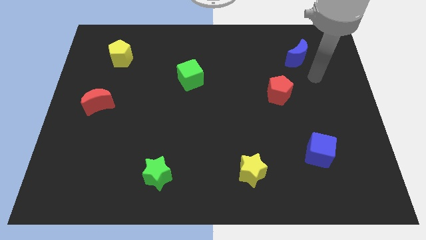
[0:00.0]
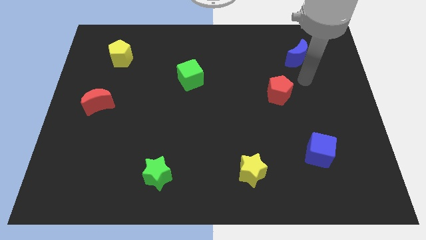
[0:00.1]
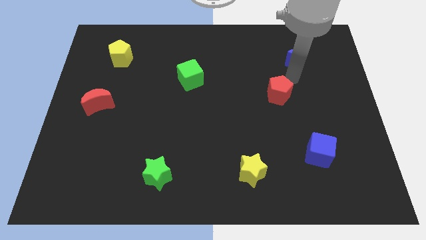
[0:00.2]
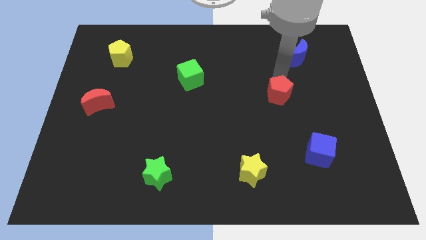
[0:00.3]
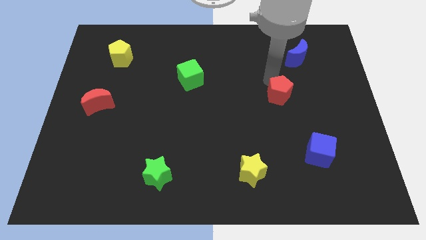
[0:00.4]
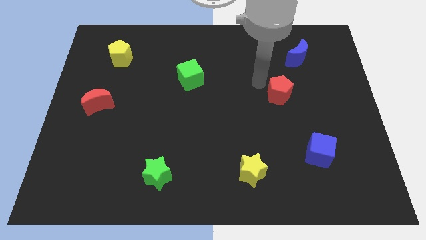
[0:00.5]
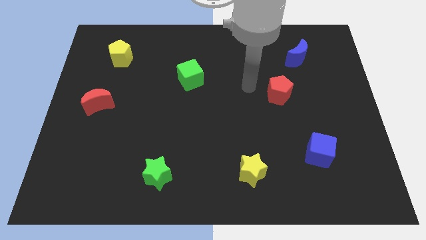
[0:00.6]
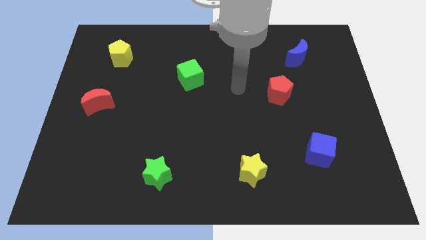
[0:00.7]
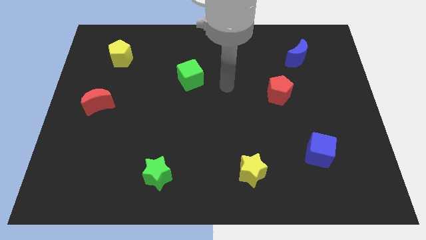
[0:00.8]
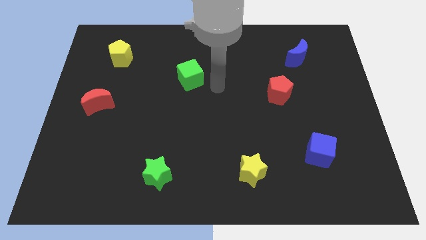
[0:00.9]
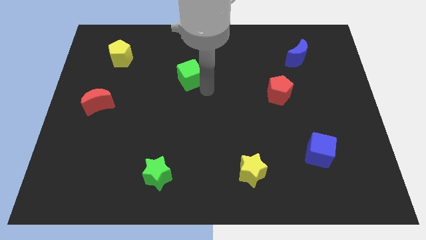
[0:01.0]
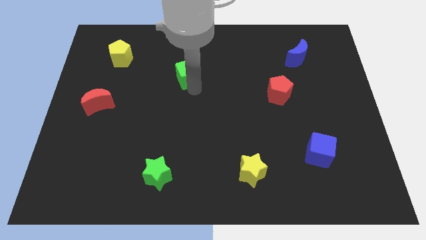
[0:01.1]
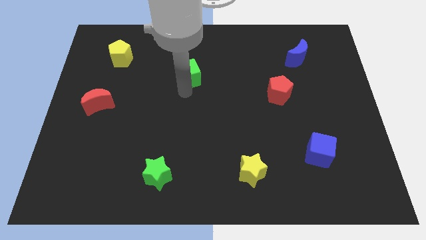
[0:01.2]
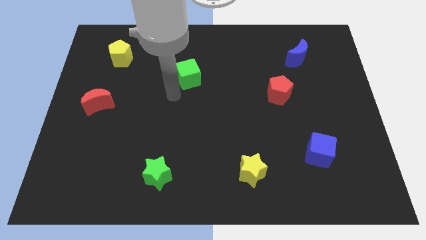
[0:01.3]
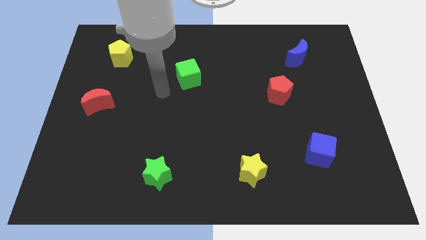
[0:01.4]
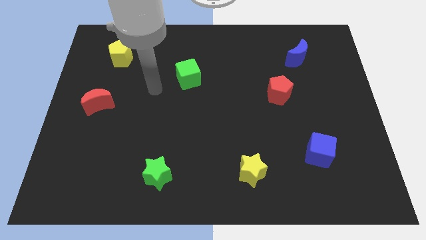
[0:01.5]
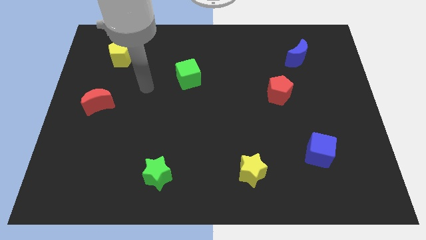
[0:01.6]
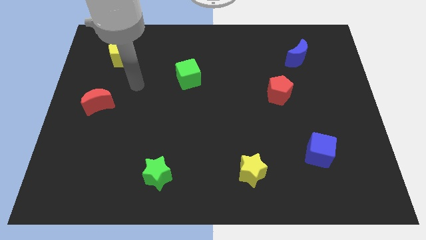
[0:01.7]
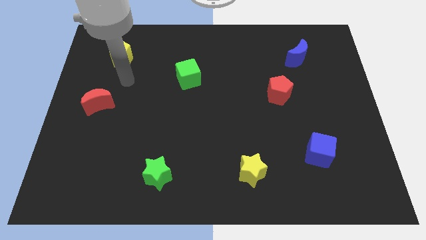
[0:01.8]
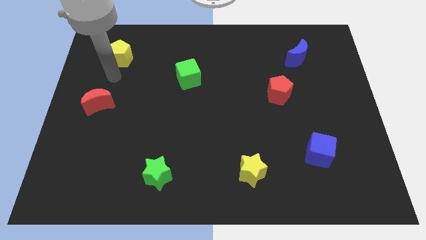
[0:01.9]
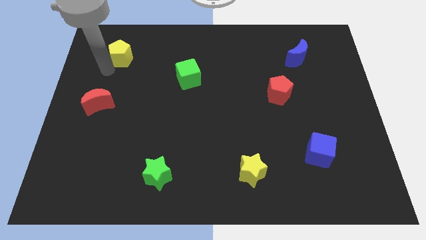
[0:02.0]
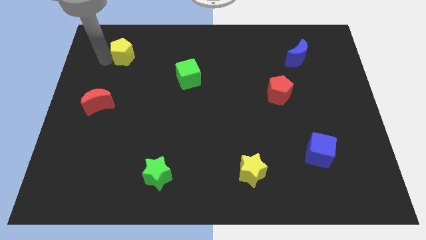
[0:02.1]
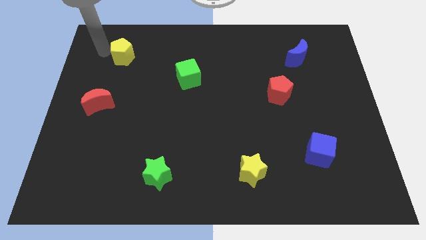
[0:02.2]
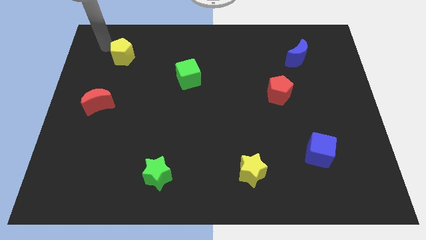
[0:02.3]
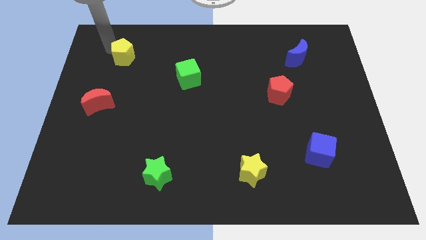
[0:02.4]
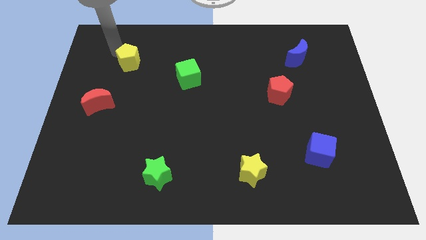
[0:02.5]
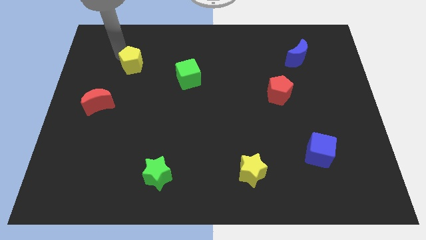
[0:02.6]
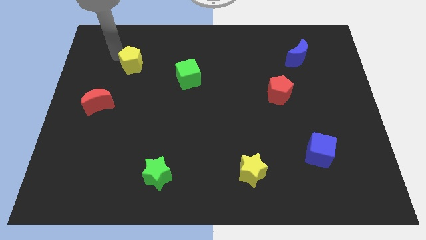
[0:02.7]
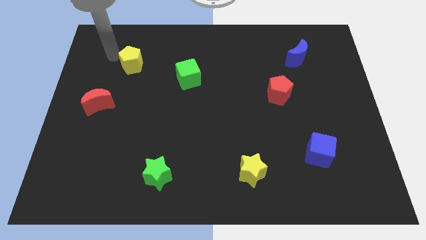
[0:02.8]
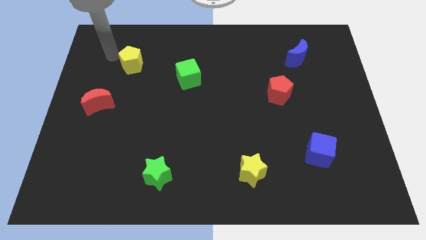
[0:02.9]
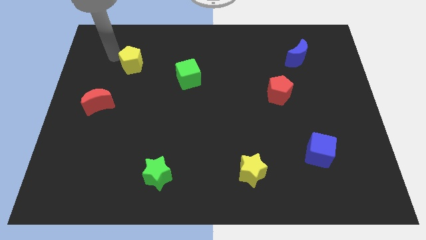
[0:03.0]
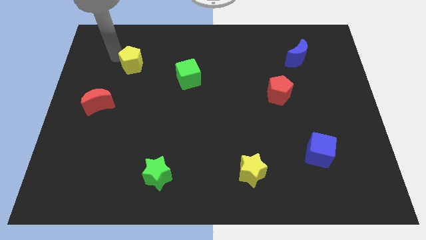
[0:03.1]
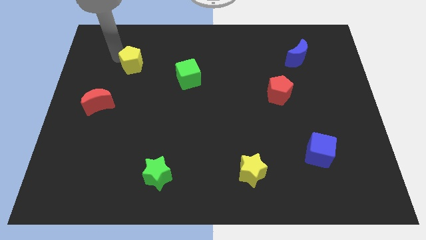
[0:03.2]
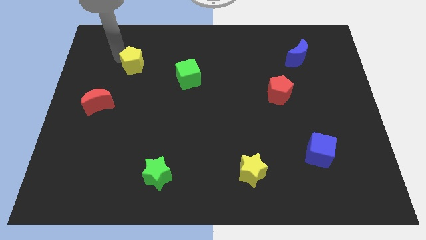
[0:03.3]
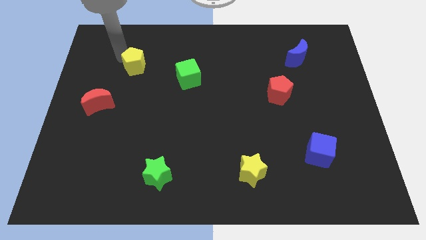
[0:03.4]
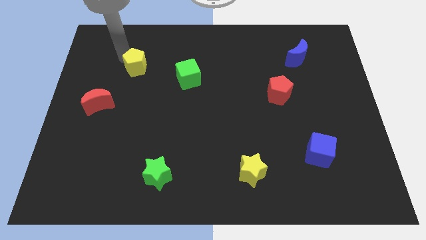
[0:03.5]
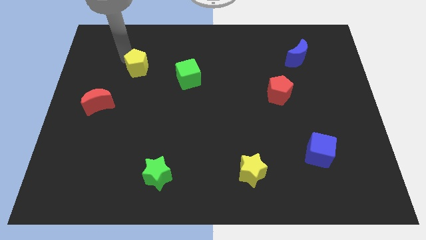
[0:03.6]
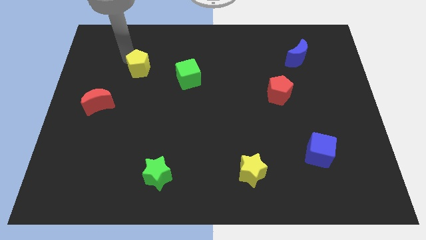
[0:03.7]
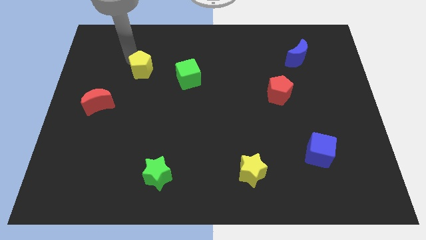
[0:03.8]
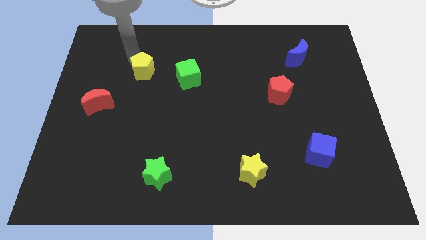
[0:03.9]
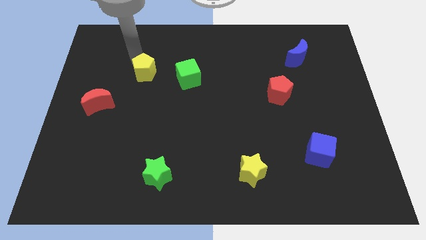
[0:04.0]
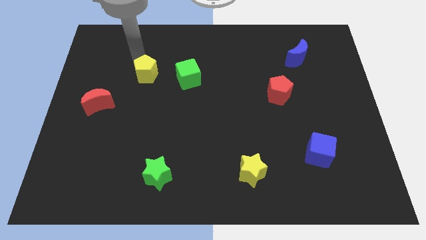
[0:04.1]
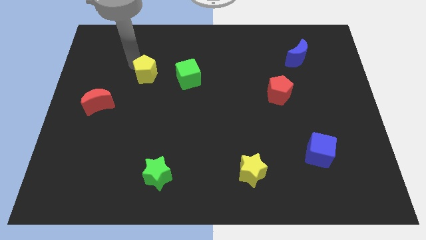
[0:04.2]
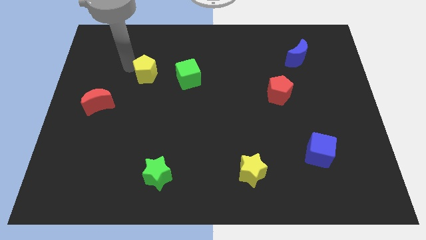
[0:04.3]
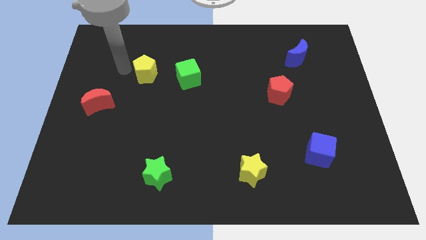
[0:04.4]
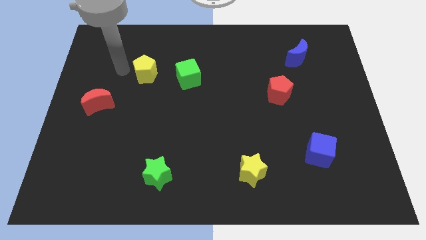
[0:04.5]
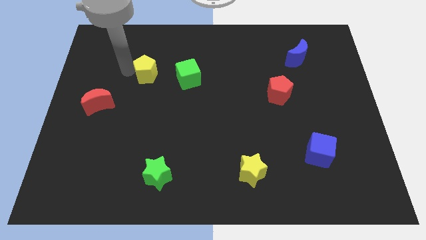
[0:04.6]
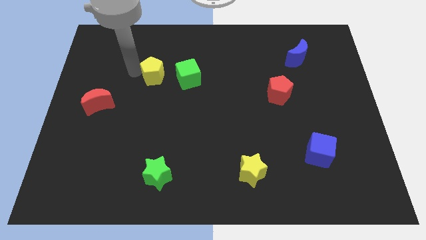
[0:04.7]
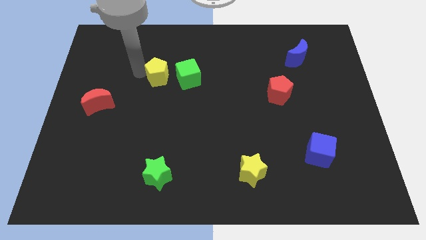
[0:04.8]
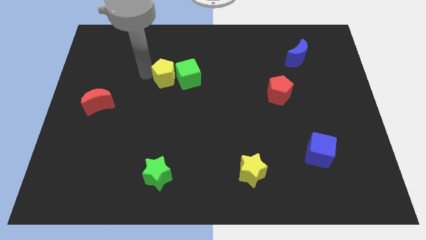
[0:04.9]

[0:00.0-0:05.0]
slide the yellow pentagon close to the green cube

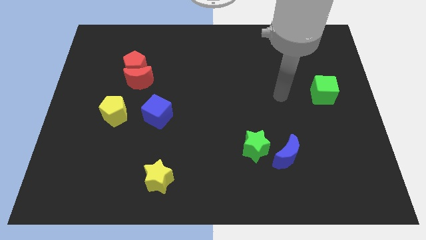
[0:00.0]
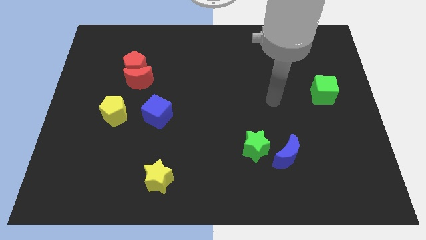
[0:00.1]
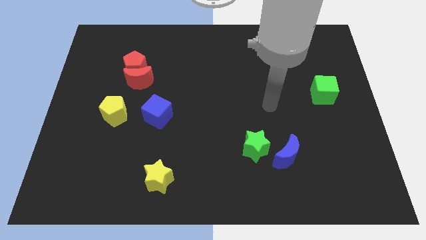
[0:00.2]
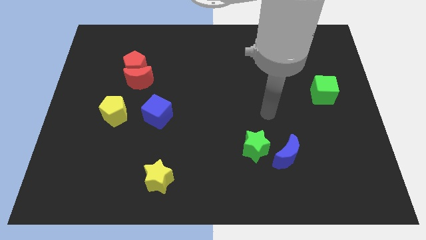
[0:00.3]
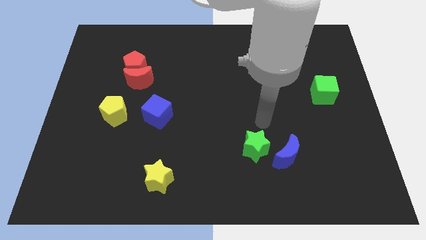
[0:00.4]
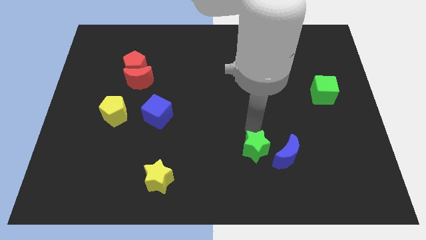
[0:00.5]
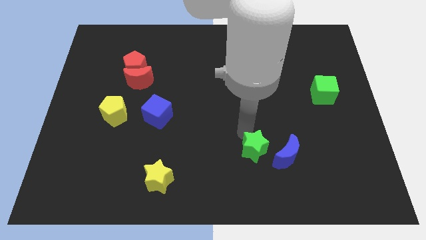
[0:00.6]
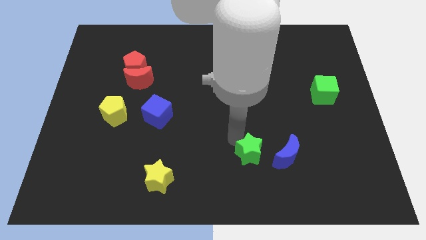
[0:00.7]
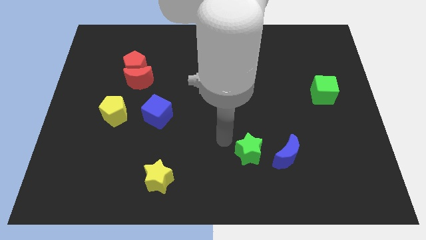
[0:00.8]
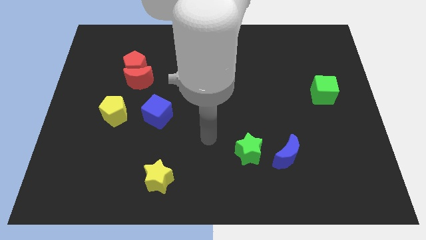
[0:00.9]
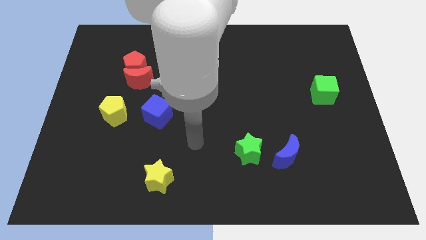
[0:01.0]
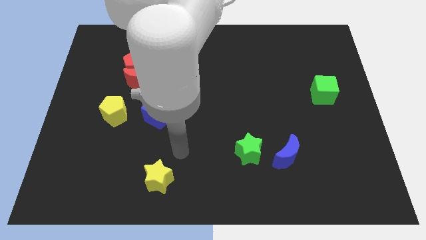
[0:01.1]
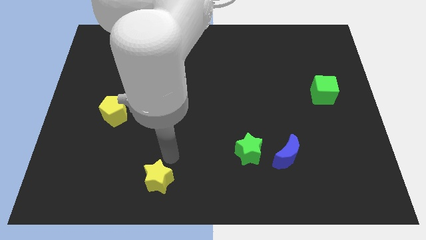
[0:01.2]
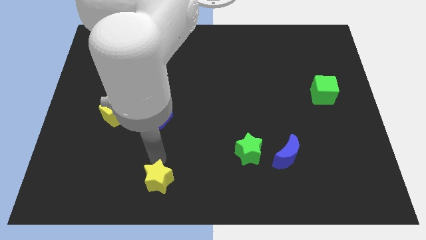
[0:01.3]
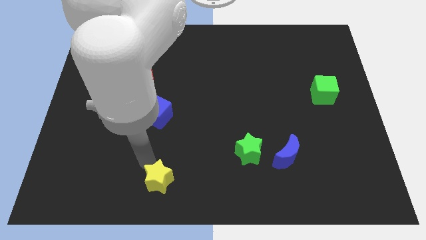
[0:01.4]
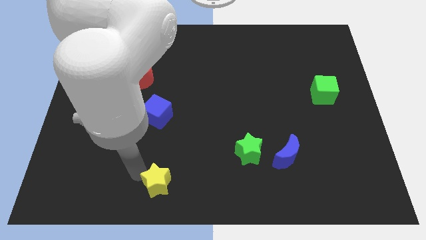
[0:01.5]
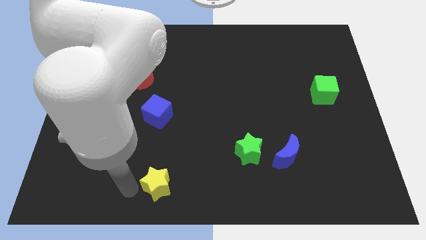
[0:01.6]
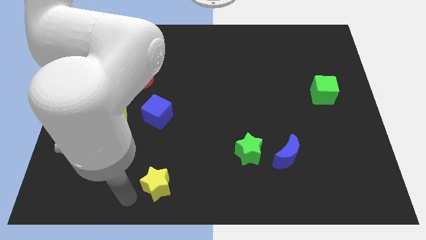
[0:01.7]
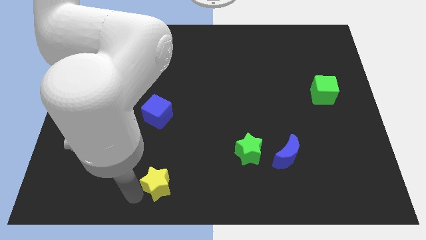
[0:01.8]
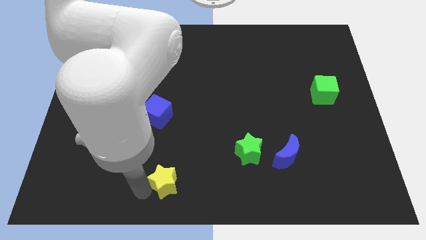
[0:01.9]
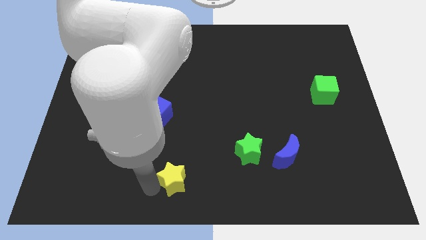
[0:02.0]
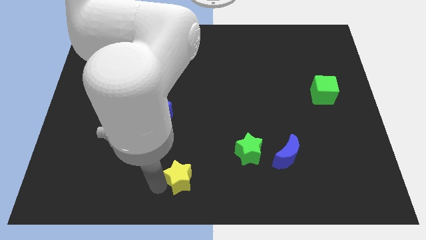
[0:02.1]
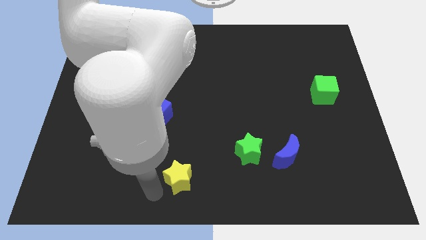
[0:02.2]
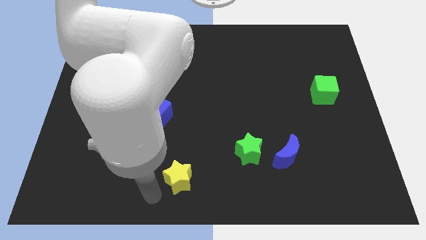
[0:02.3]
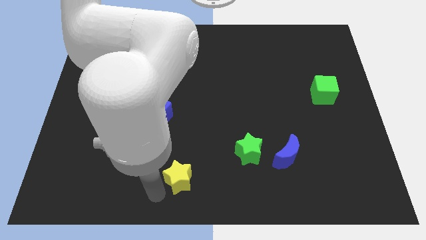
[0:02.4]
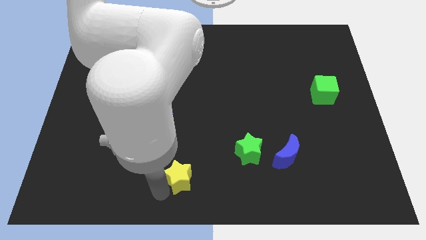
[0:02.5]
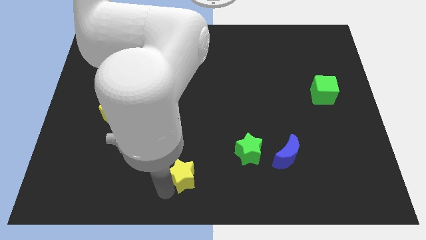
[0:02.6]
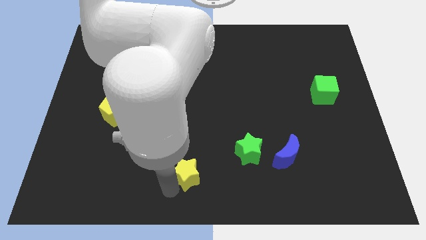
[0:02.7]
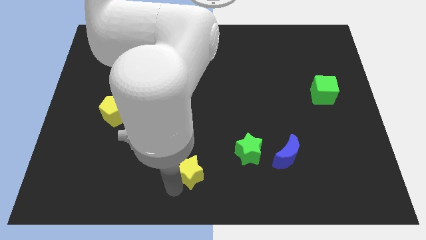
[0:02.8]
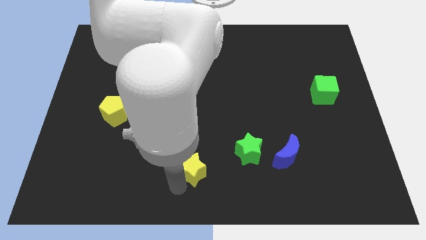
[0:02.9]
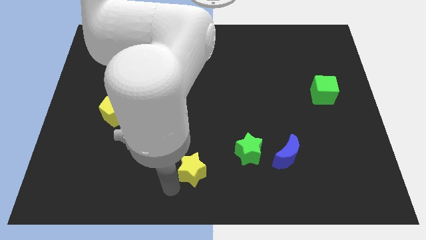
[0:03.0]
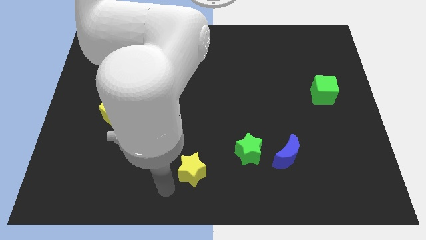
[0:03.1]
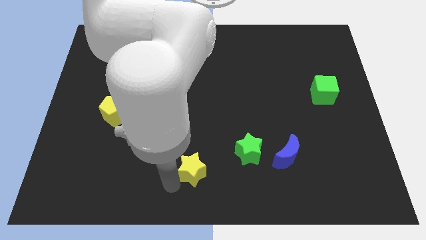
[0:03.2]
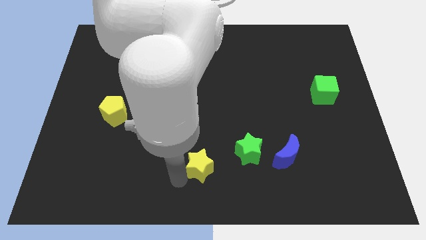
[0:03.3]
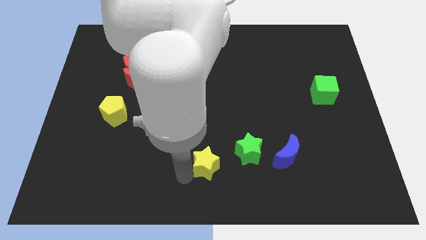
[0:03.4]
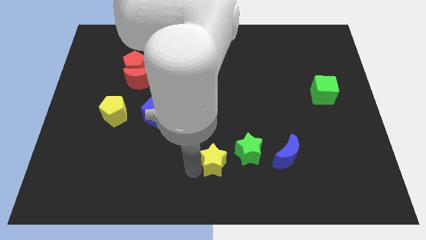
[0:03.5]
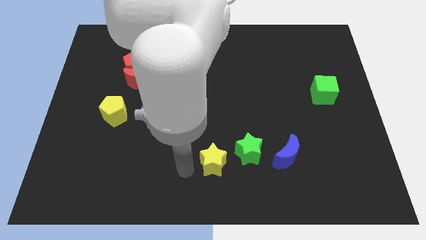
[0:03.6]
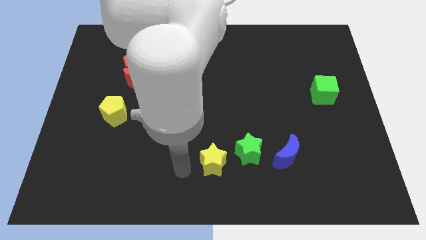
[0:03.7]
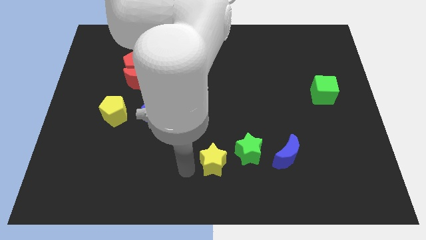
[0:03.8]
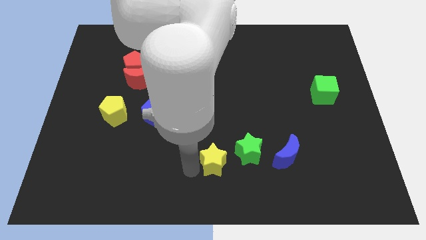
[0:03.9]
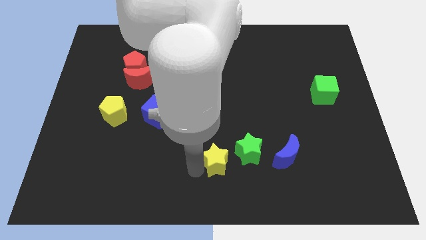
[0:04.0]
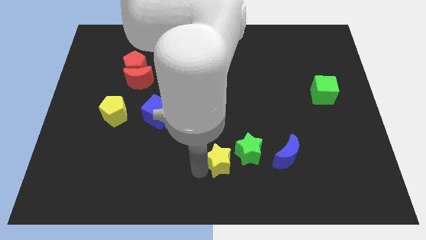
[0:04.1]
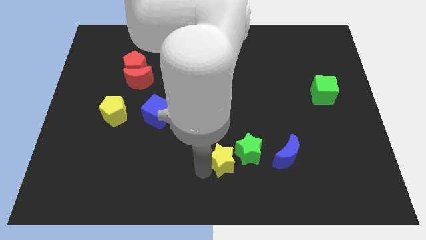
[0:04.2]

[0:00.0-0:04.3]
push the yellow star next to the green star
